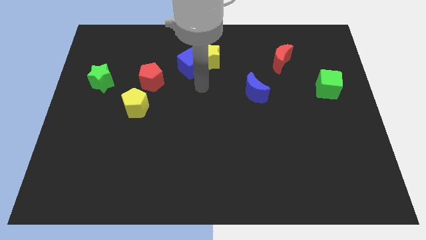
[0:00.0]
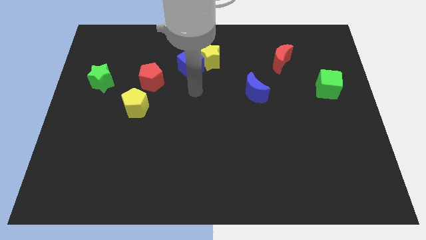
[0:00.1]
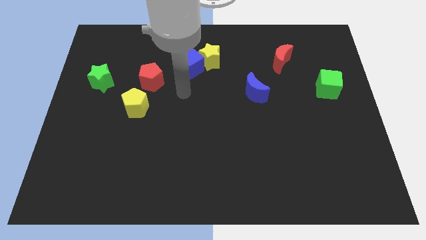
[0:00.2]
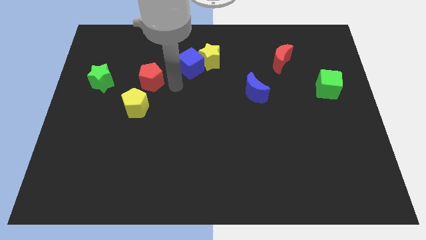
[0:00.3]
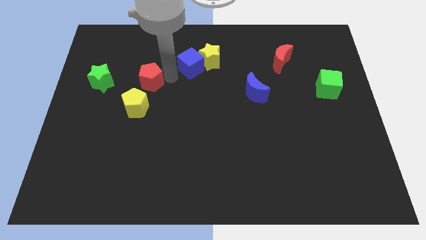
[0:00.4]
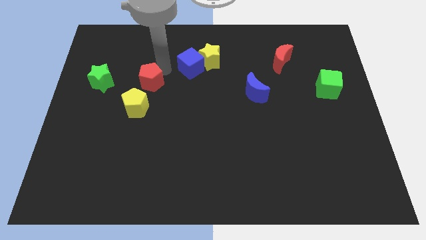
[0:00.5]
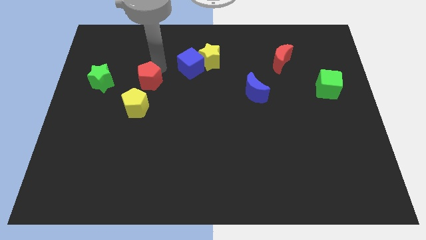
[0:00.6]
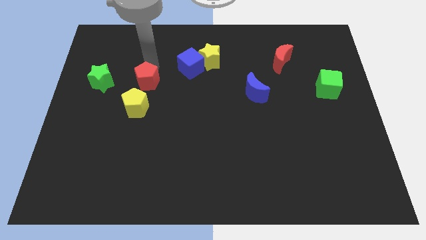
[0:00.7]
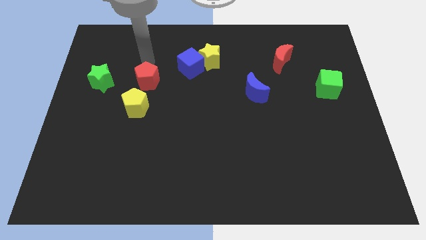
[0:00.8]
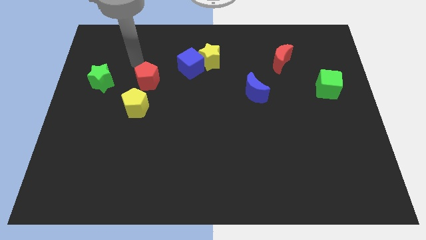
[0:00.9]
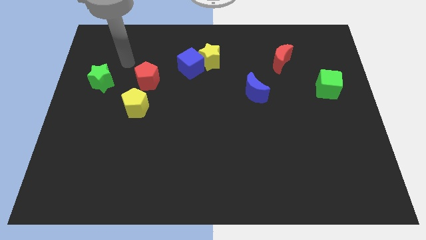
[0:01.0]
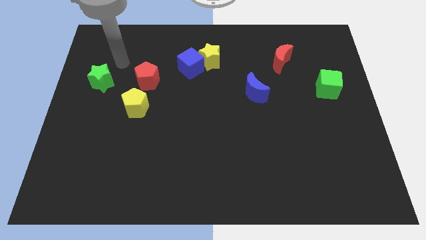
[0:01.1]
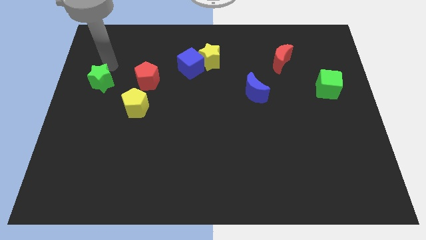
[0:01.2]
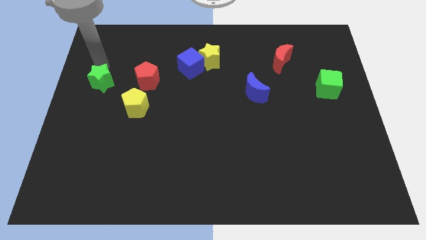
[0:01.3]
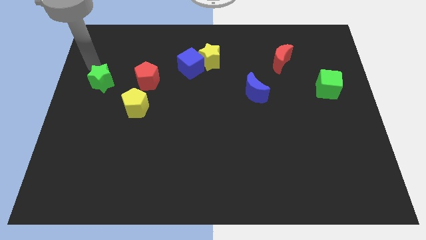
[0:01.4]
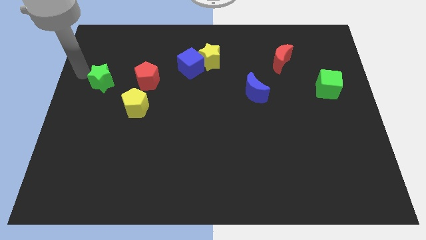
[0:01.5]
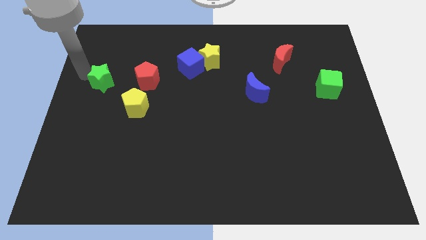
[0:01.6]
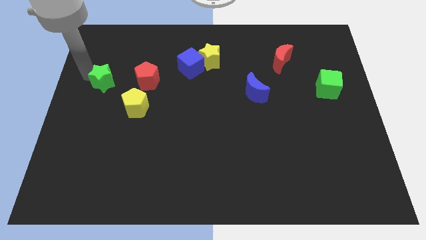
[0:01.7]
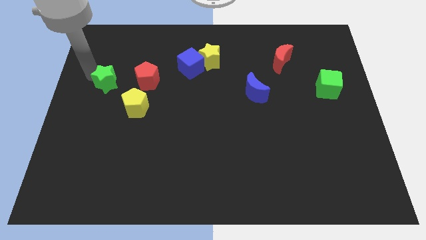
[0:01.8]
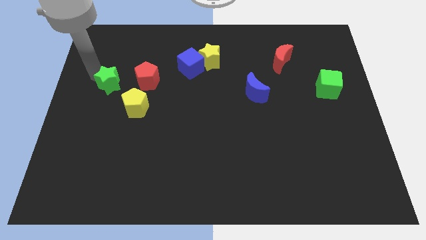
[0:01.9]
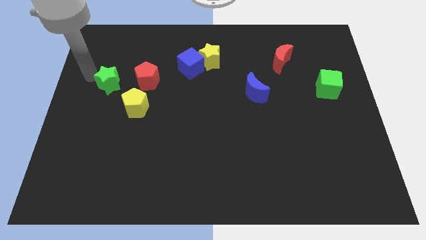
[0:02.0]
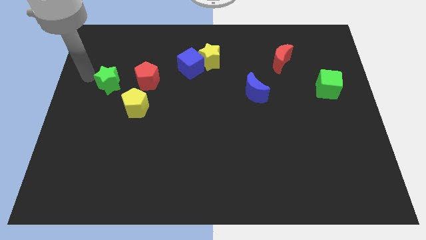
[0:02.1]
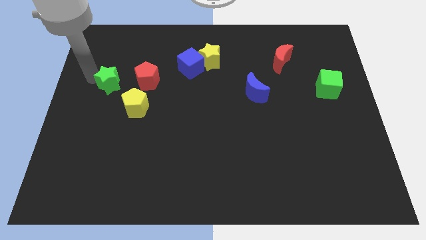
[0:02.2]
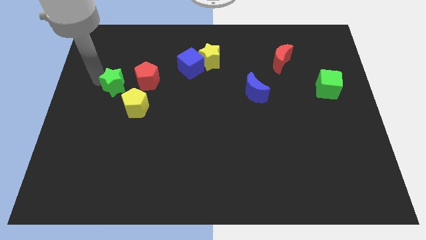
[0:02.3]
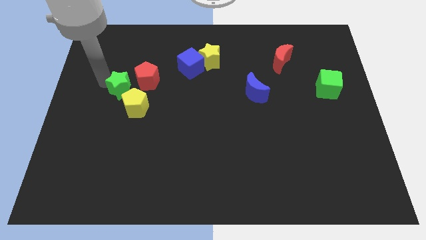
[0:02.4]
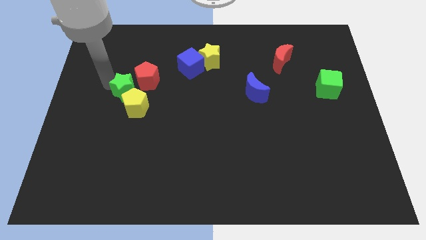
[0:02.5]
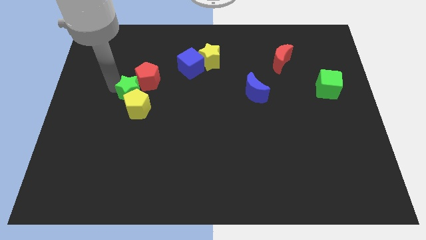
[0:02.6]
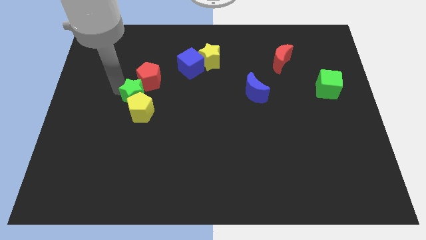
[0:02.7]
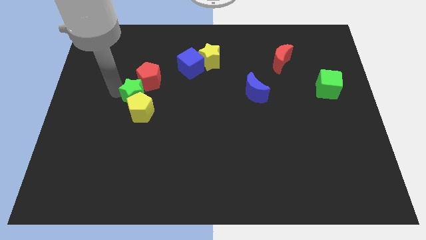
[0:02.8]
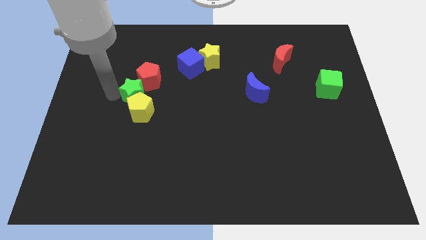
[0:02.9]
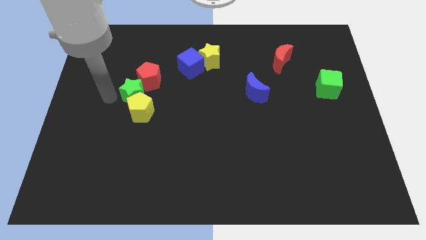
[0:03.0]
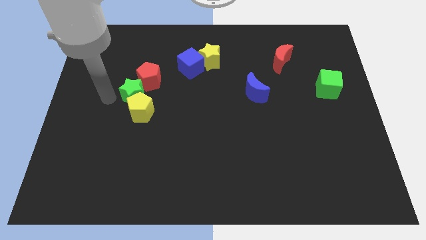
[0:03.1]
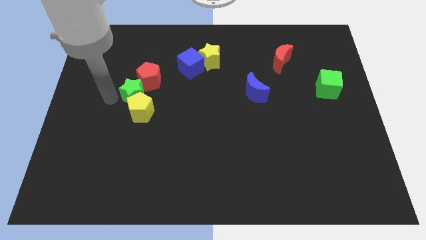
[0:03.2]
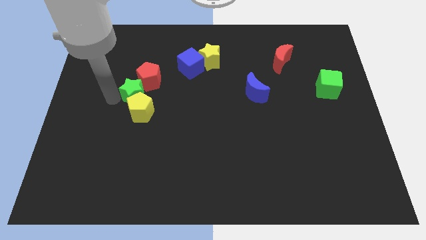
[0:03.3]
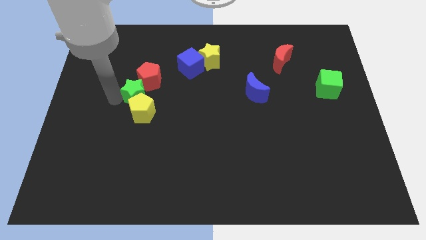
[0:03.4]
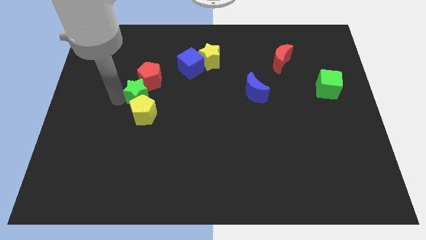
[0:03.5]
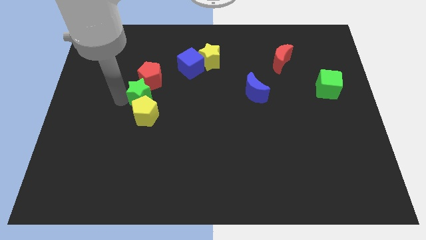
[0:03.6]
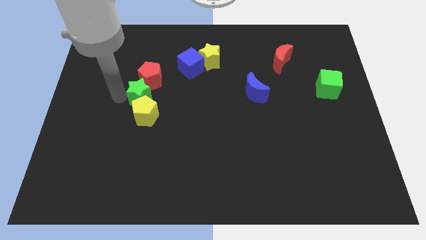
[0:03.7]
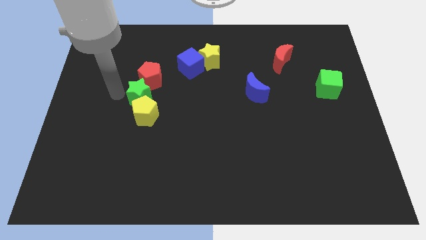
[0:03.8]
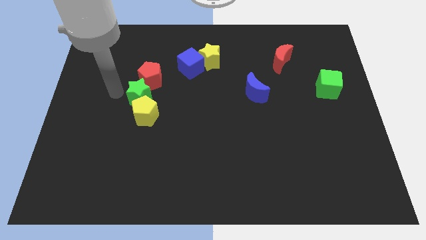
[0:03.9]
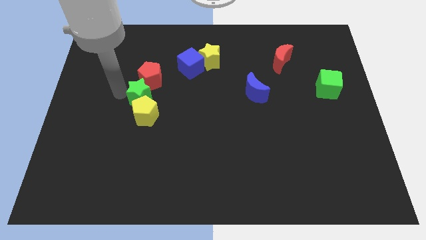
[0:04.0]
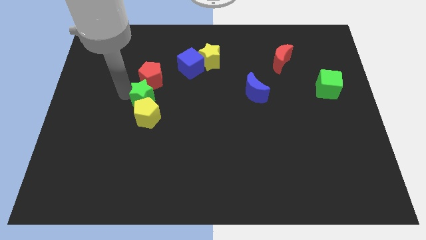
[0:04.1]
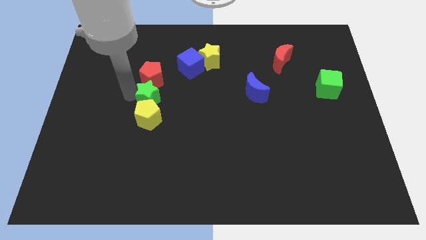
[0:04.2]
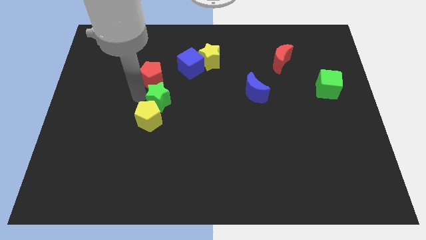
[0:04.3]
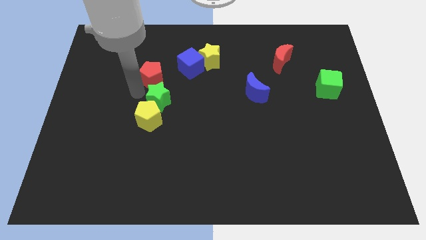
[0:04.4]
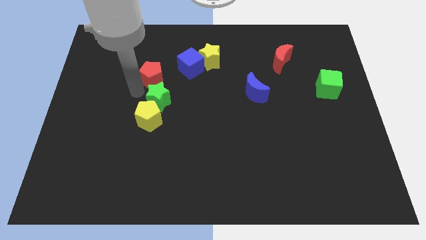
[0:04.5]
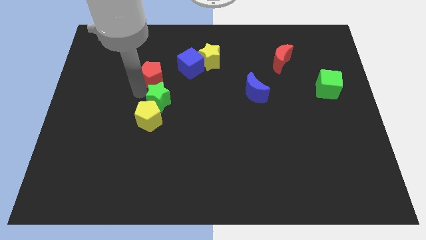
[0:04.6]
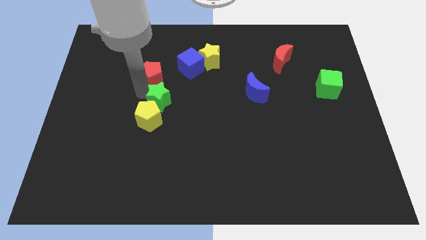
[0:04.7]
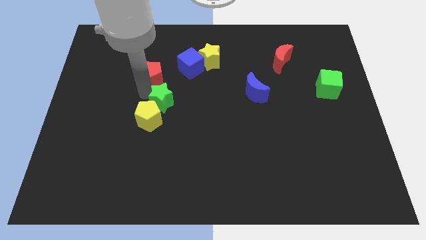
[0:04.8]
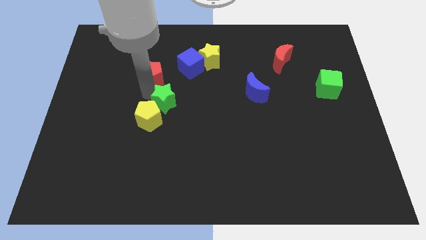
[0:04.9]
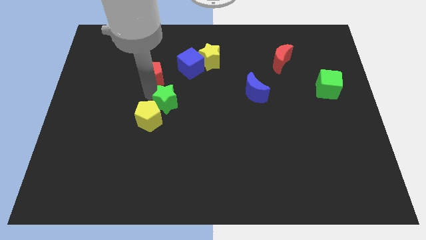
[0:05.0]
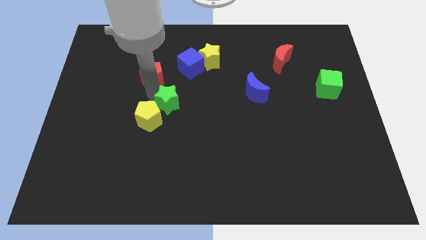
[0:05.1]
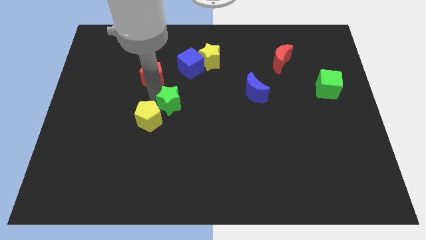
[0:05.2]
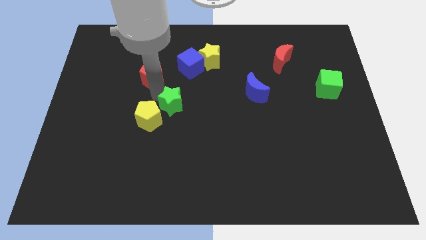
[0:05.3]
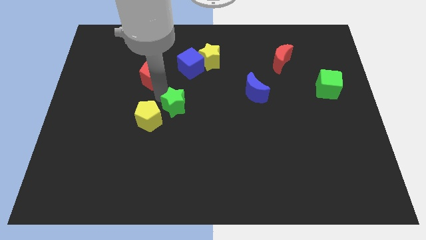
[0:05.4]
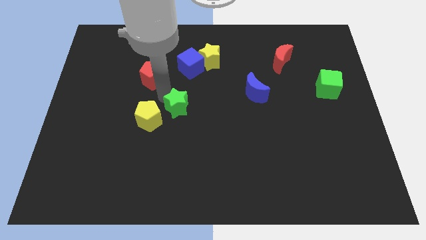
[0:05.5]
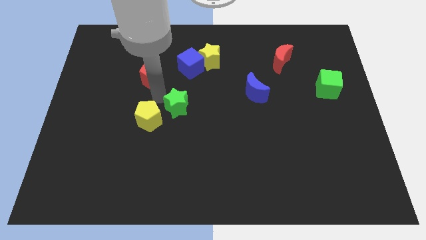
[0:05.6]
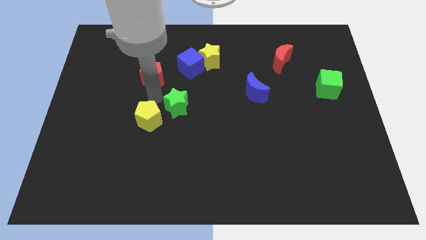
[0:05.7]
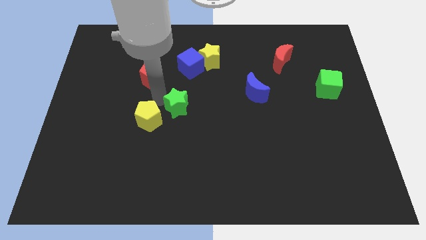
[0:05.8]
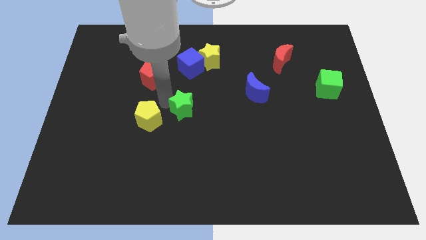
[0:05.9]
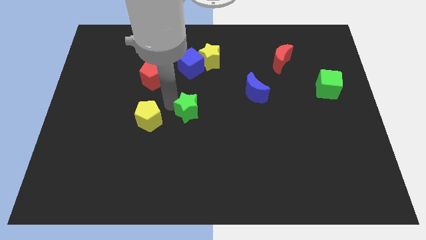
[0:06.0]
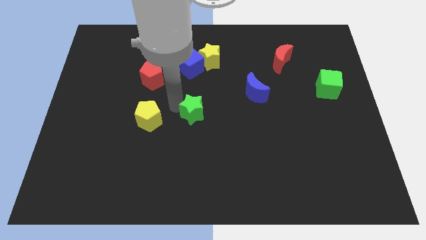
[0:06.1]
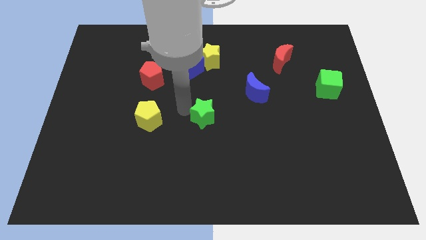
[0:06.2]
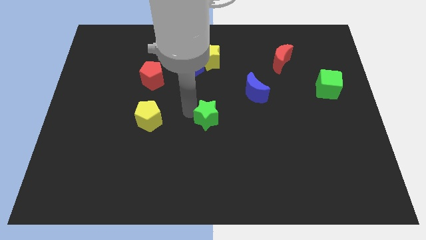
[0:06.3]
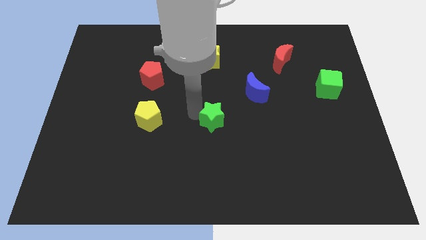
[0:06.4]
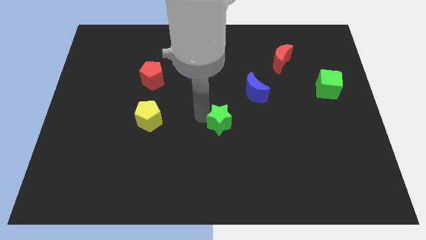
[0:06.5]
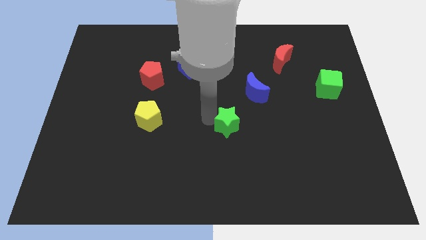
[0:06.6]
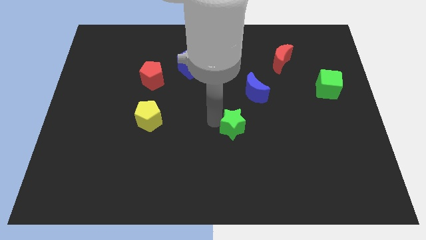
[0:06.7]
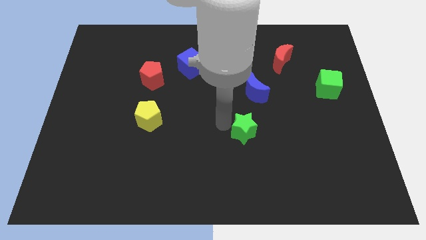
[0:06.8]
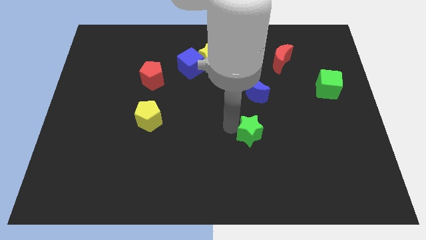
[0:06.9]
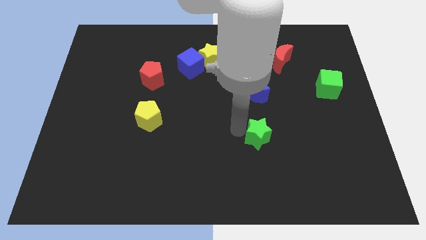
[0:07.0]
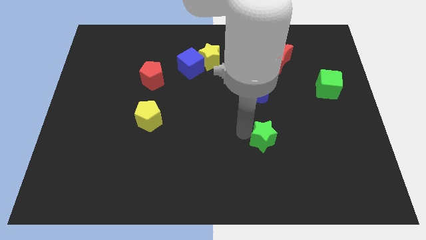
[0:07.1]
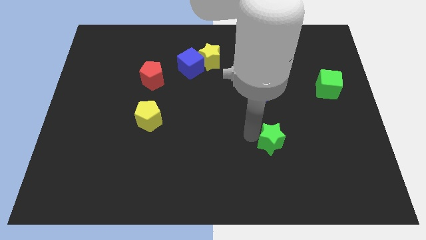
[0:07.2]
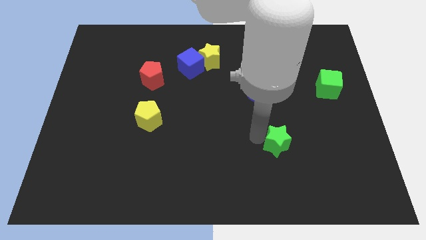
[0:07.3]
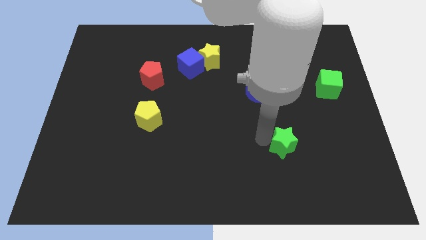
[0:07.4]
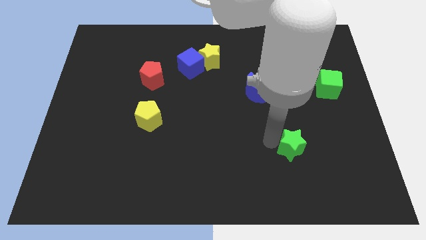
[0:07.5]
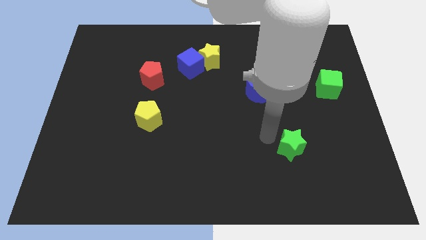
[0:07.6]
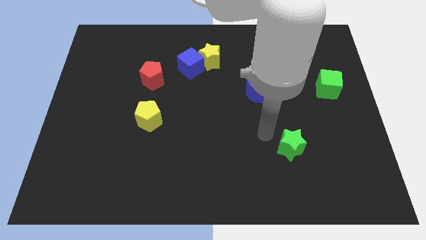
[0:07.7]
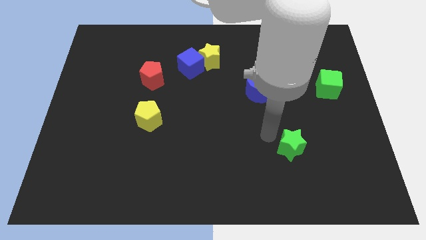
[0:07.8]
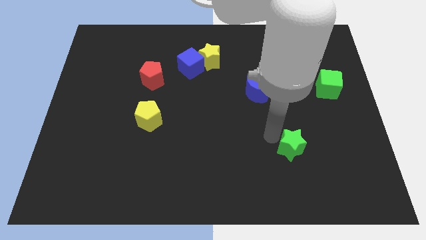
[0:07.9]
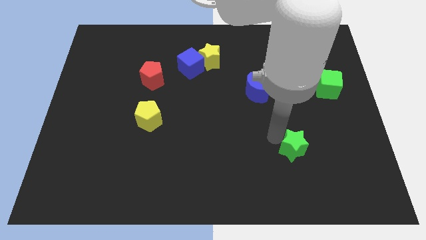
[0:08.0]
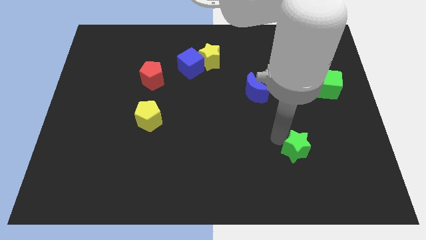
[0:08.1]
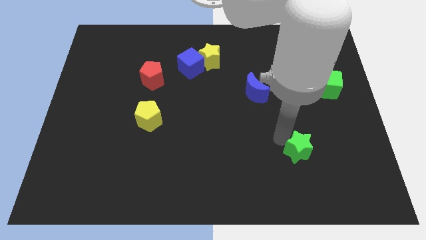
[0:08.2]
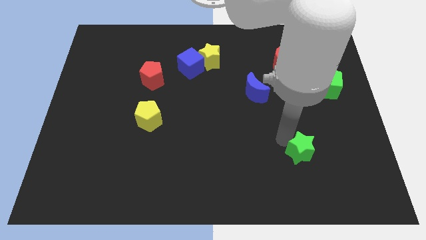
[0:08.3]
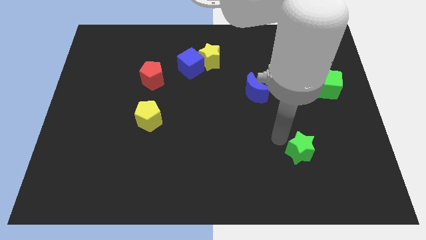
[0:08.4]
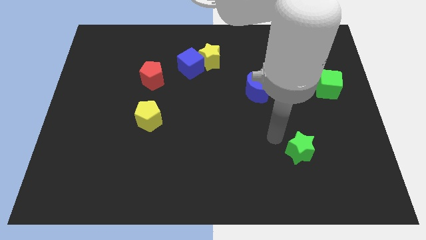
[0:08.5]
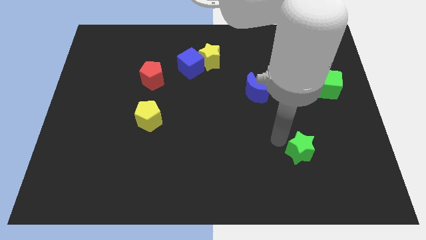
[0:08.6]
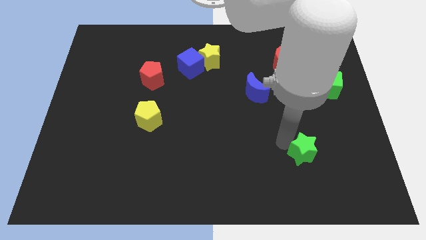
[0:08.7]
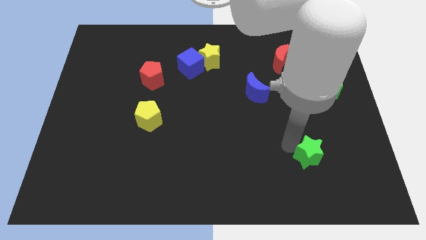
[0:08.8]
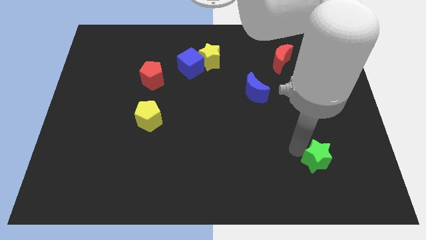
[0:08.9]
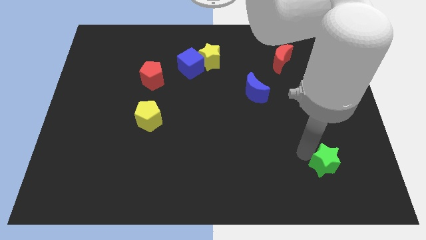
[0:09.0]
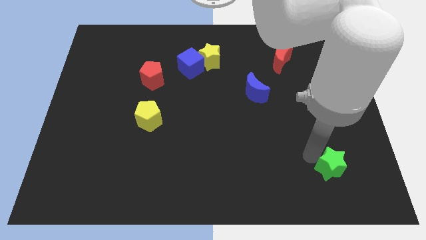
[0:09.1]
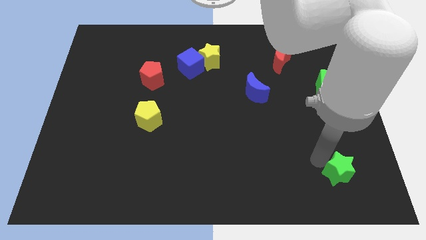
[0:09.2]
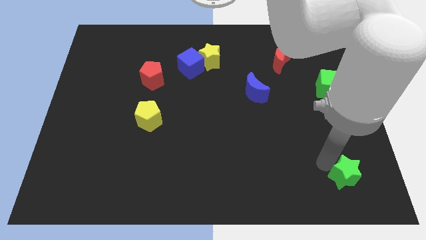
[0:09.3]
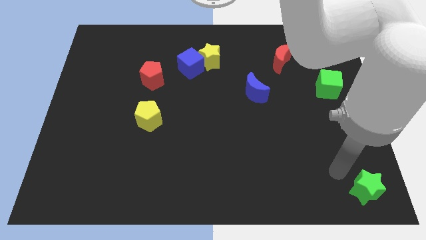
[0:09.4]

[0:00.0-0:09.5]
push the green star to the bottom right of the board
